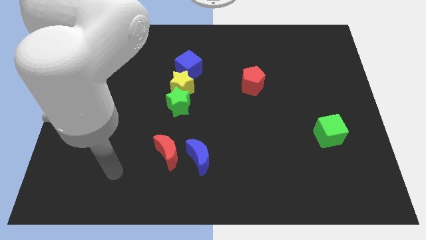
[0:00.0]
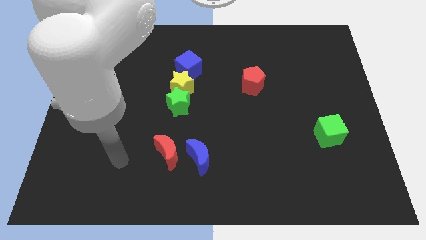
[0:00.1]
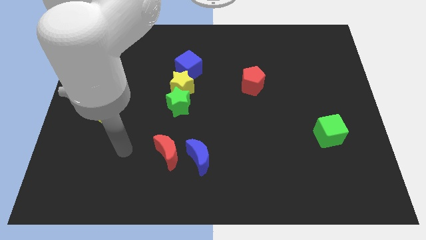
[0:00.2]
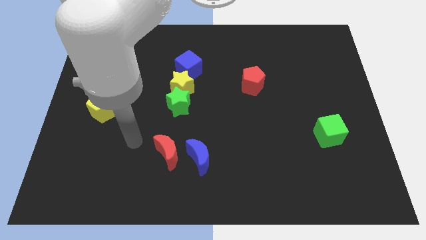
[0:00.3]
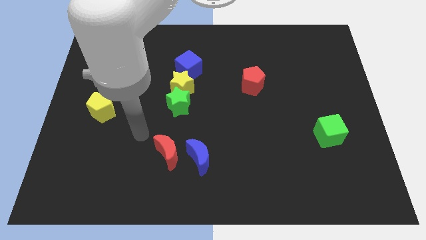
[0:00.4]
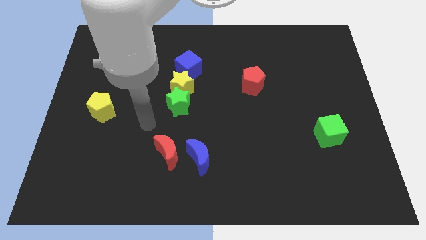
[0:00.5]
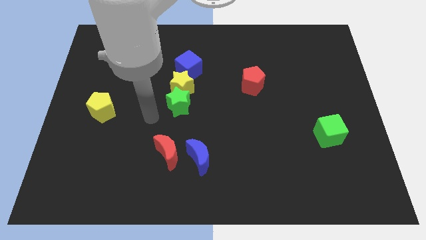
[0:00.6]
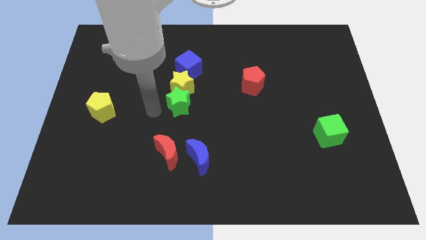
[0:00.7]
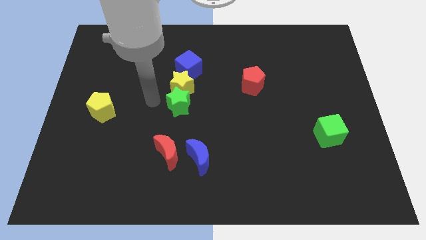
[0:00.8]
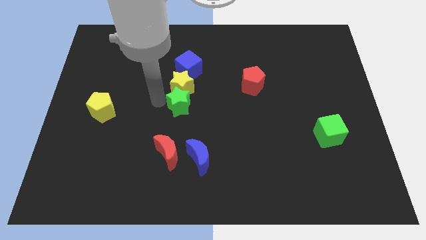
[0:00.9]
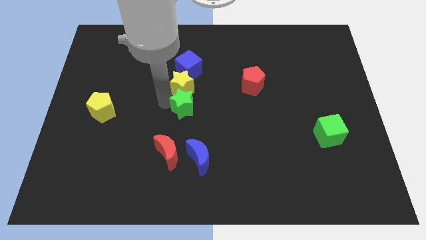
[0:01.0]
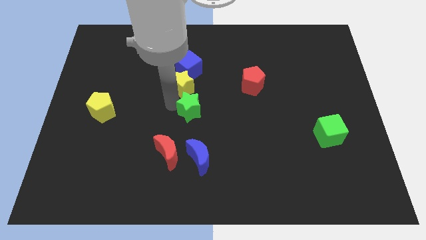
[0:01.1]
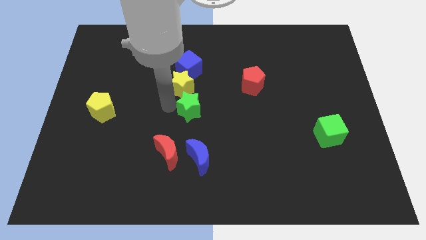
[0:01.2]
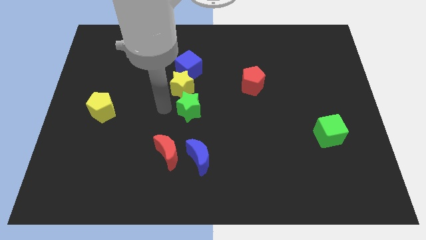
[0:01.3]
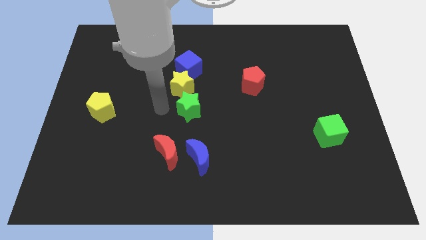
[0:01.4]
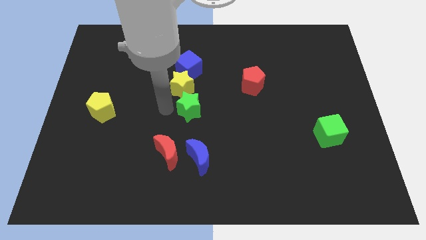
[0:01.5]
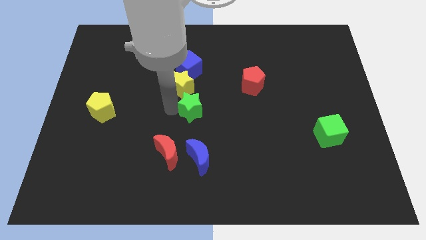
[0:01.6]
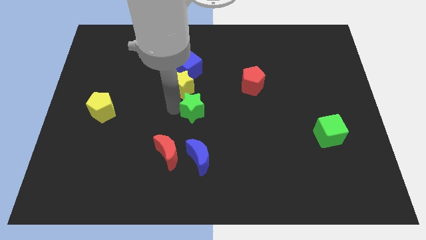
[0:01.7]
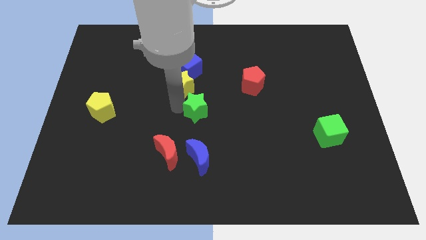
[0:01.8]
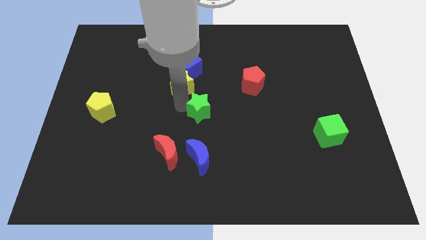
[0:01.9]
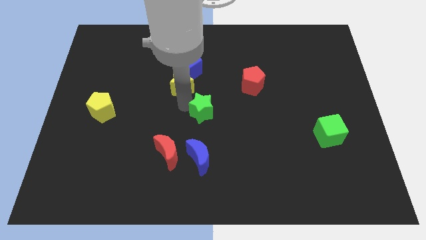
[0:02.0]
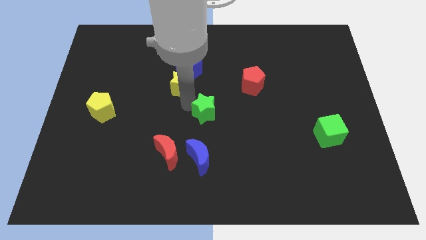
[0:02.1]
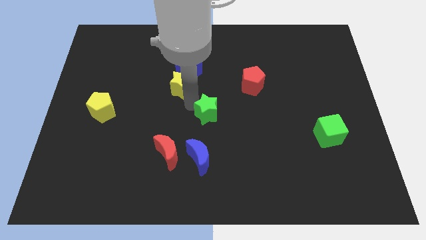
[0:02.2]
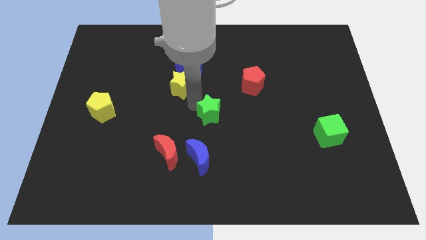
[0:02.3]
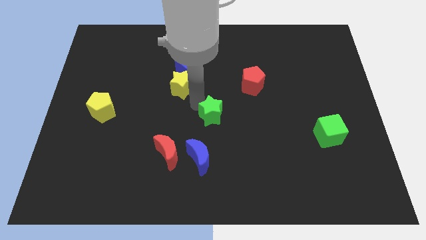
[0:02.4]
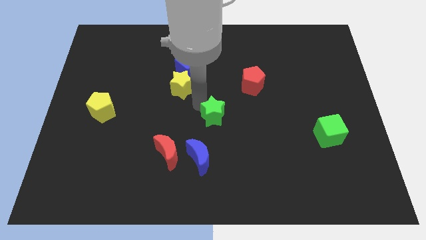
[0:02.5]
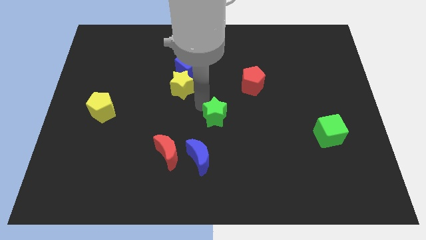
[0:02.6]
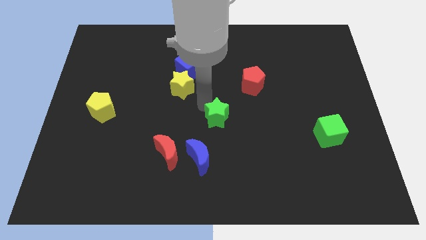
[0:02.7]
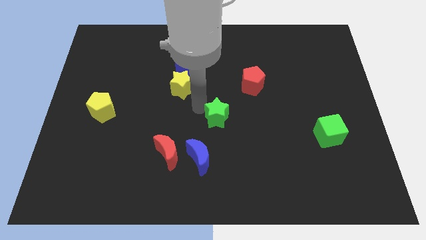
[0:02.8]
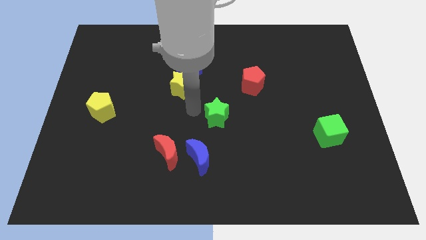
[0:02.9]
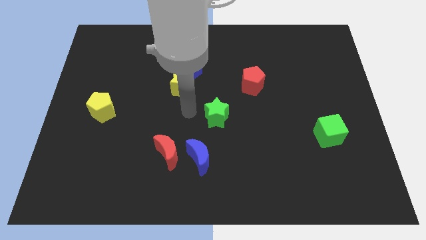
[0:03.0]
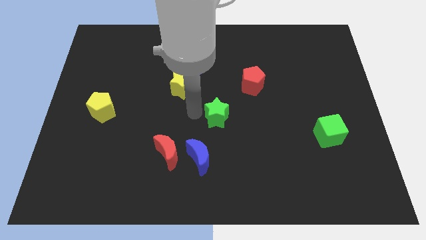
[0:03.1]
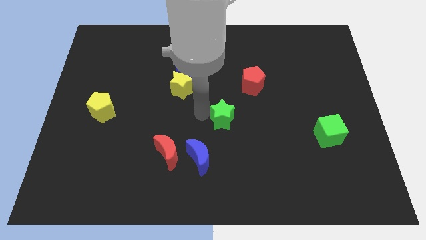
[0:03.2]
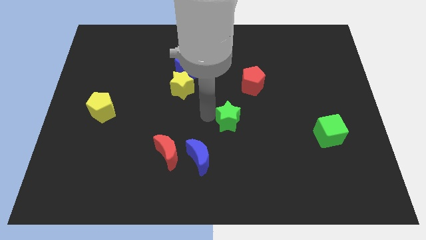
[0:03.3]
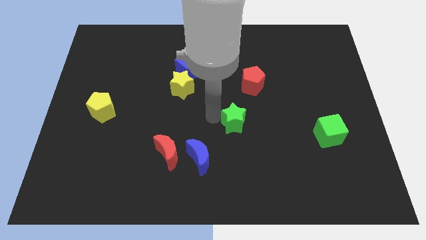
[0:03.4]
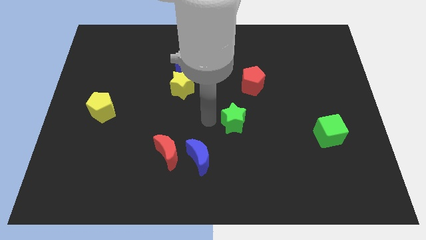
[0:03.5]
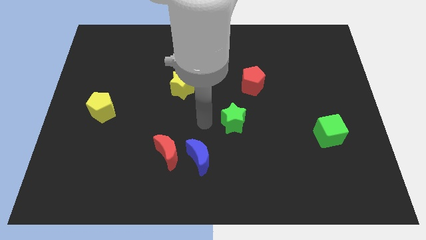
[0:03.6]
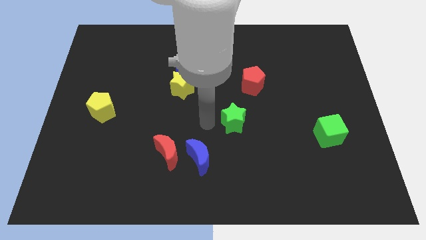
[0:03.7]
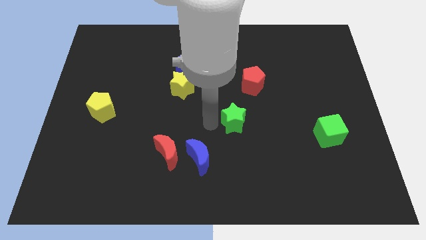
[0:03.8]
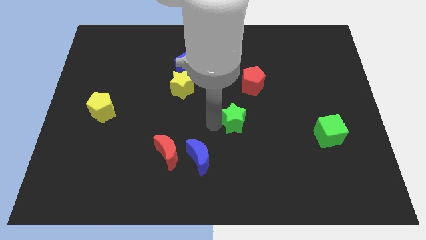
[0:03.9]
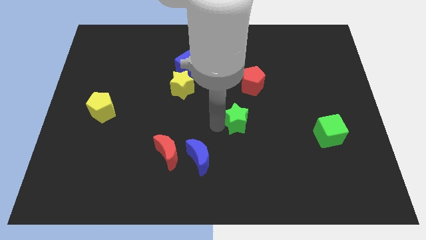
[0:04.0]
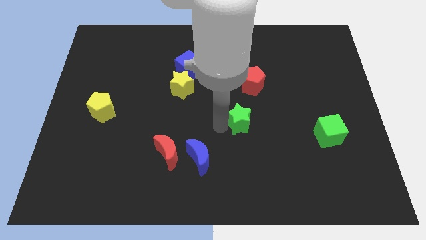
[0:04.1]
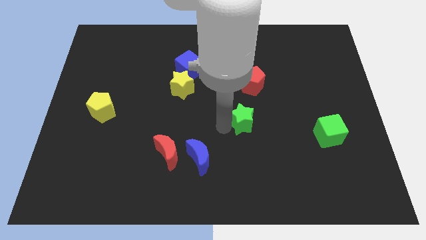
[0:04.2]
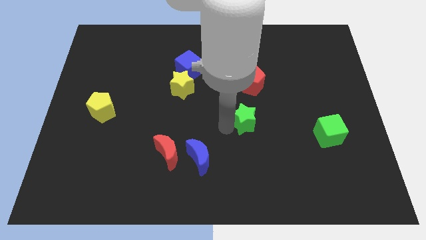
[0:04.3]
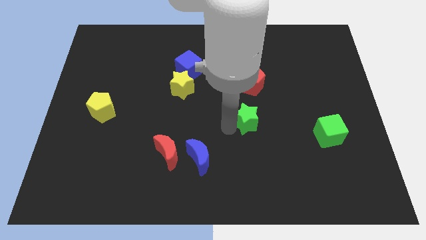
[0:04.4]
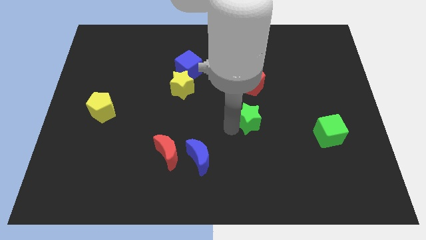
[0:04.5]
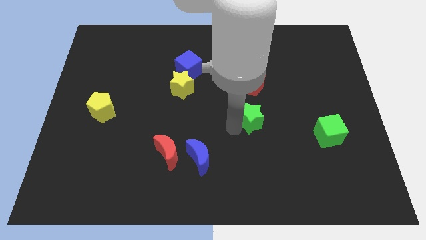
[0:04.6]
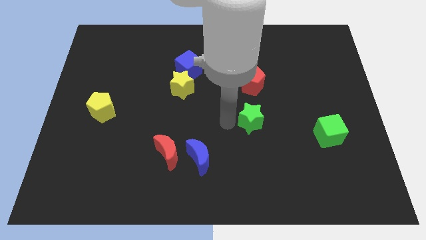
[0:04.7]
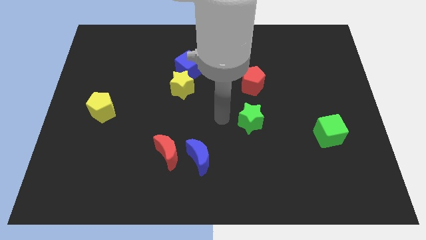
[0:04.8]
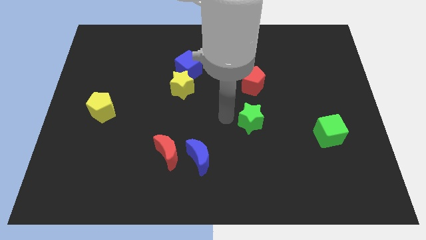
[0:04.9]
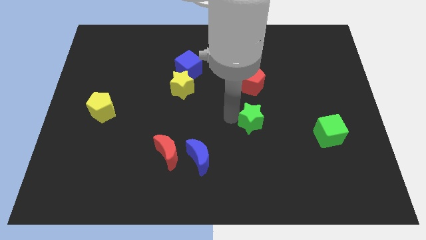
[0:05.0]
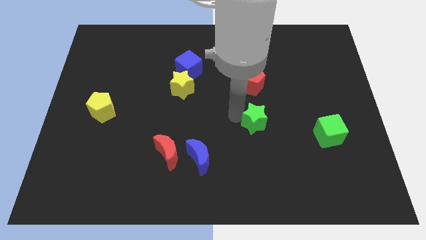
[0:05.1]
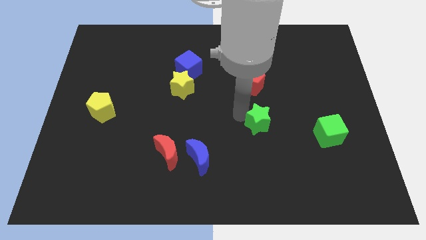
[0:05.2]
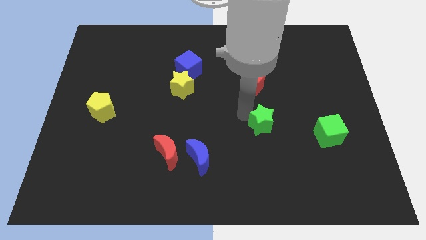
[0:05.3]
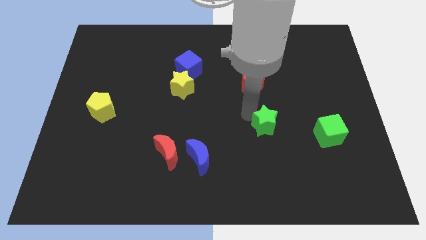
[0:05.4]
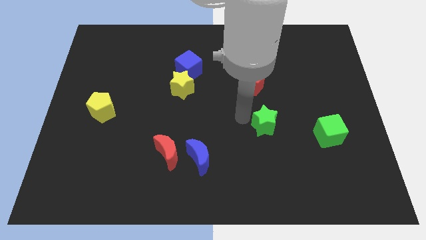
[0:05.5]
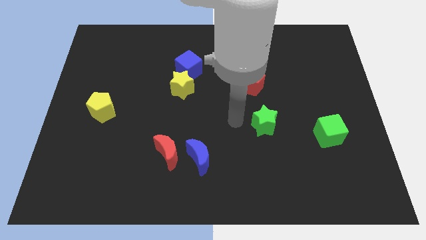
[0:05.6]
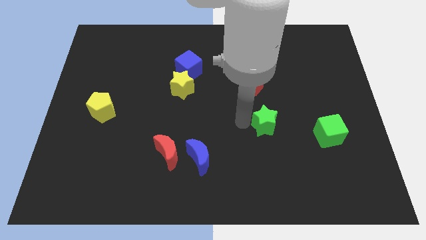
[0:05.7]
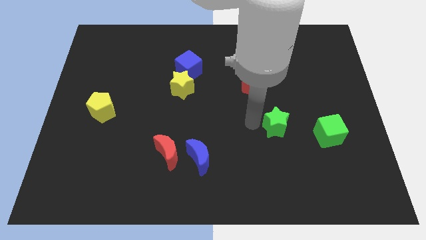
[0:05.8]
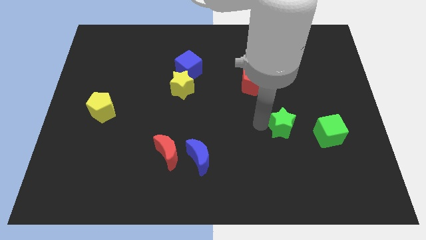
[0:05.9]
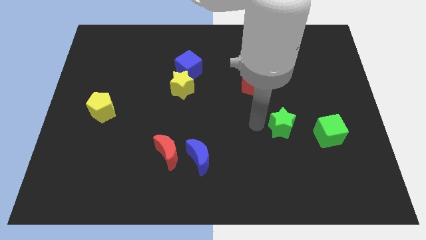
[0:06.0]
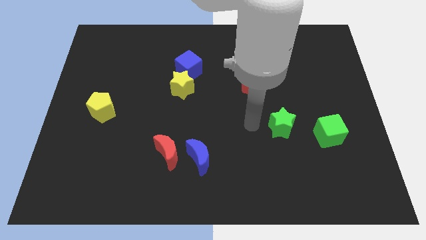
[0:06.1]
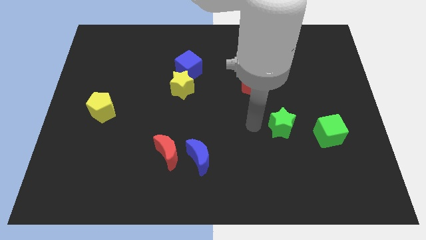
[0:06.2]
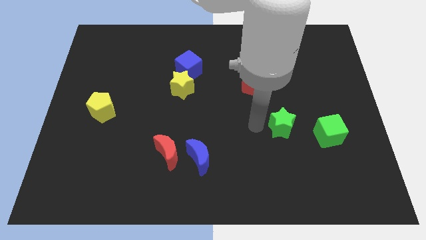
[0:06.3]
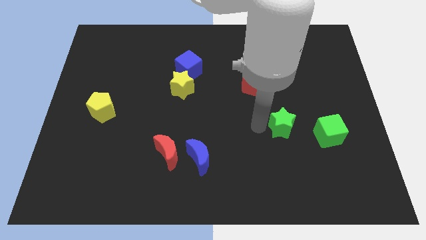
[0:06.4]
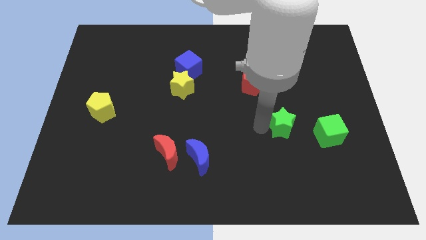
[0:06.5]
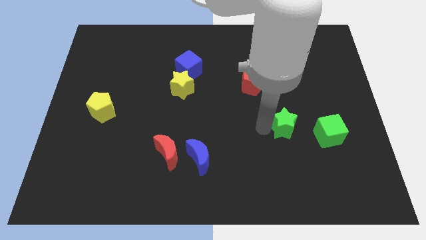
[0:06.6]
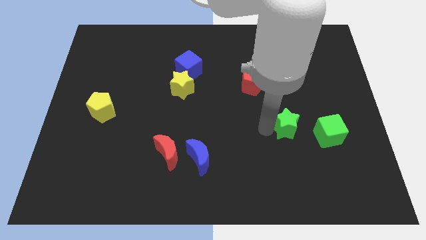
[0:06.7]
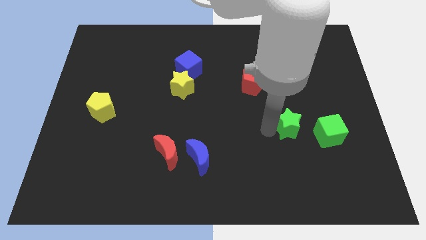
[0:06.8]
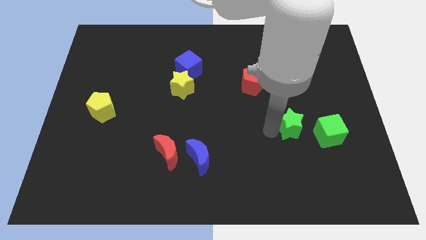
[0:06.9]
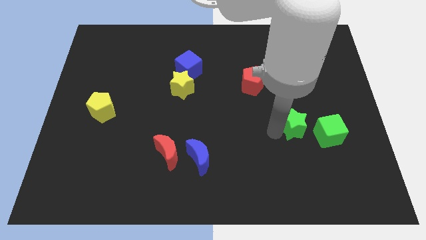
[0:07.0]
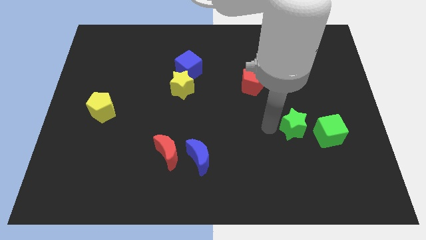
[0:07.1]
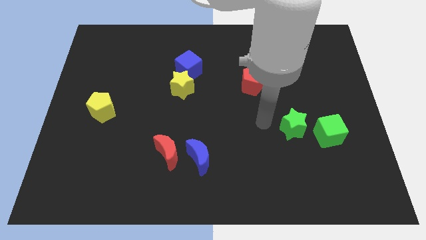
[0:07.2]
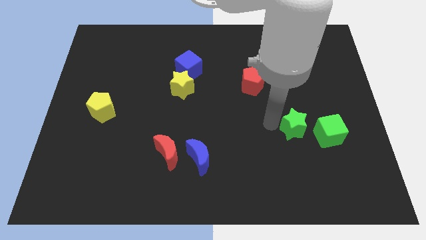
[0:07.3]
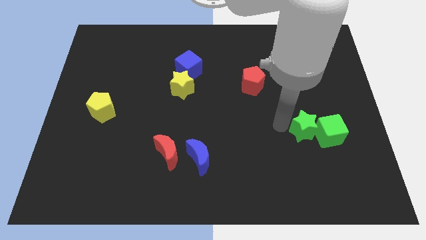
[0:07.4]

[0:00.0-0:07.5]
move the green star to the green cube
